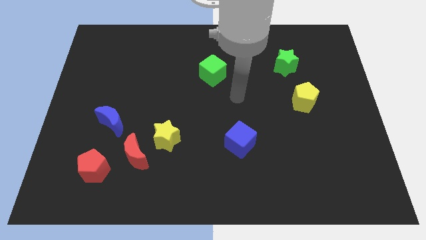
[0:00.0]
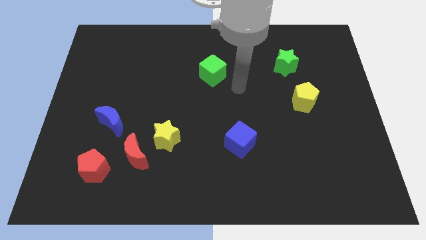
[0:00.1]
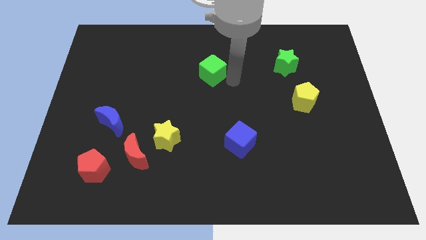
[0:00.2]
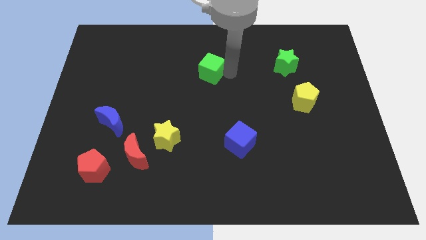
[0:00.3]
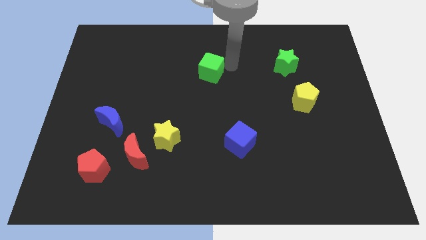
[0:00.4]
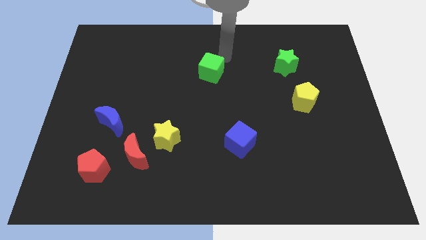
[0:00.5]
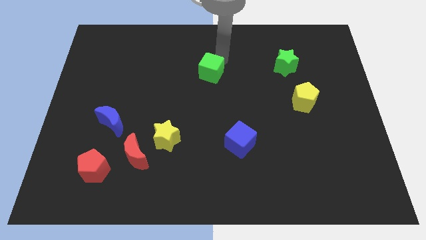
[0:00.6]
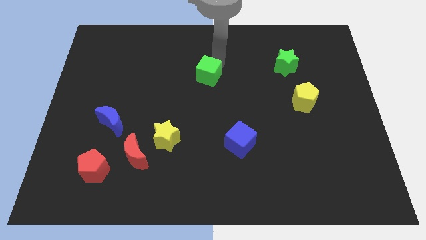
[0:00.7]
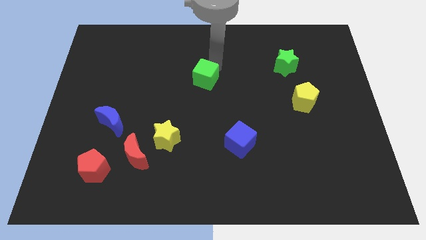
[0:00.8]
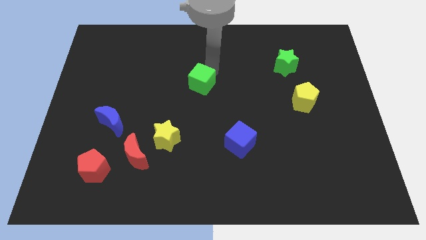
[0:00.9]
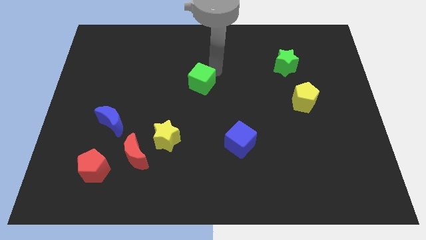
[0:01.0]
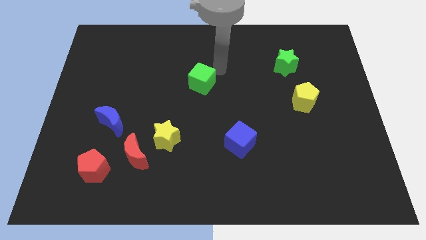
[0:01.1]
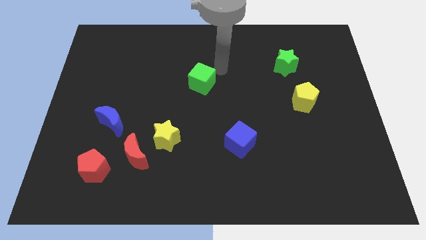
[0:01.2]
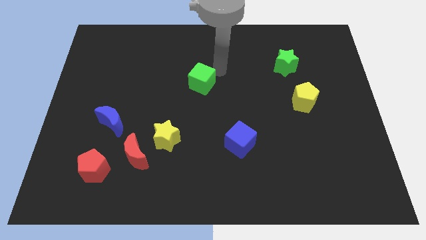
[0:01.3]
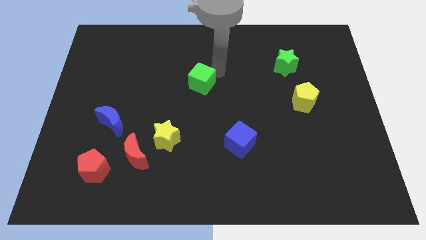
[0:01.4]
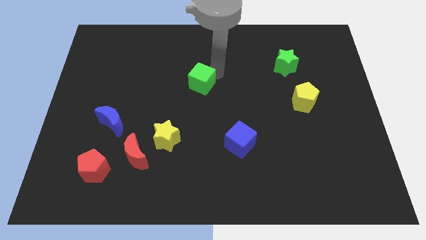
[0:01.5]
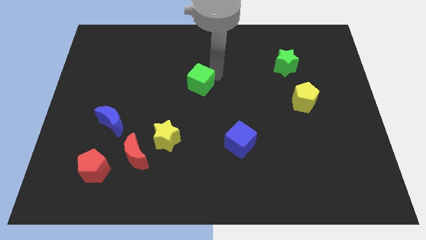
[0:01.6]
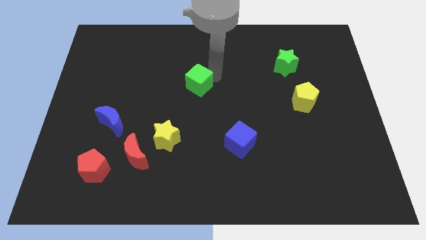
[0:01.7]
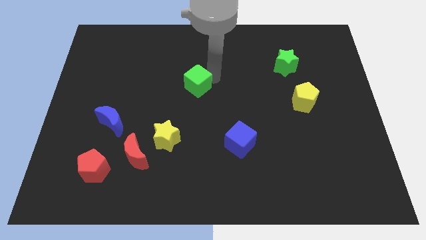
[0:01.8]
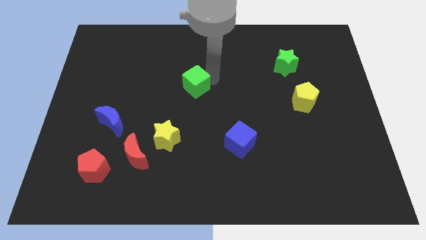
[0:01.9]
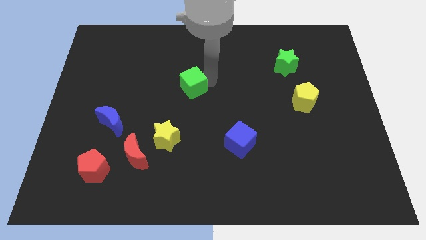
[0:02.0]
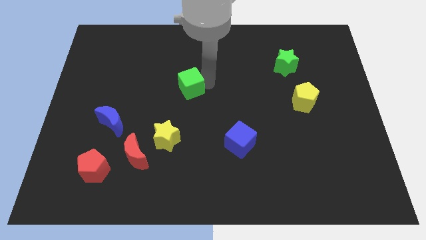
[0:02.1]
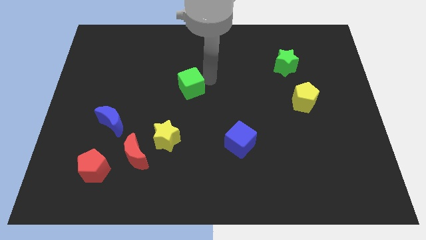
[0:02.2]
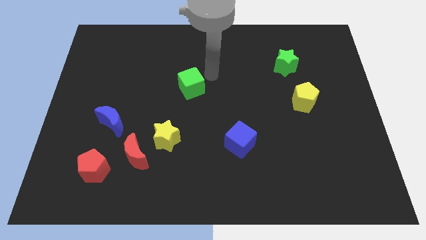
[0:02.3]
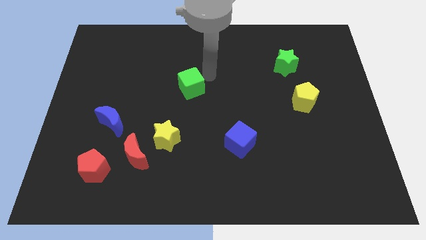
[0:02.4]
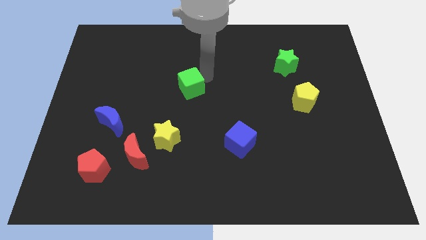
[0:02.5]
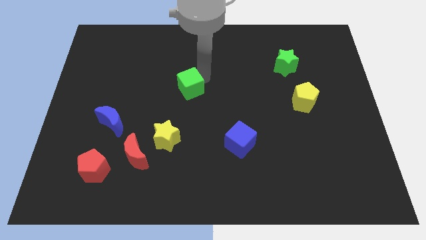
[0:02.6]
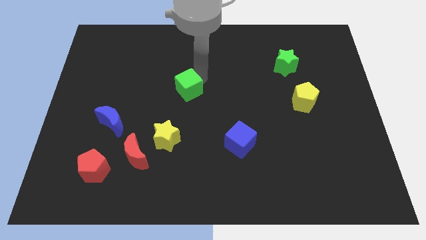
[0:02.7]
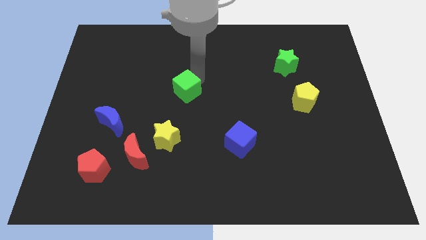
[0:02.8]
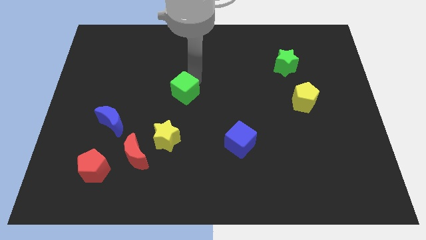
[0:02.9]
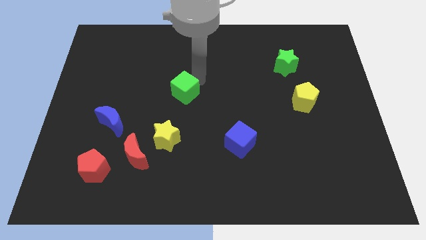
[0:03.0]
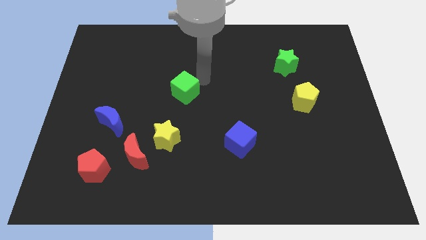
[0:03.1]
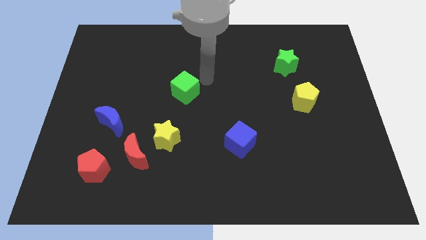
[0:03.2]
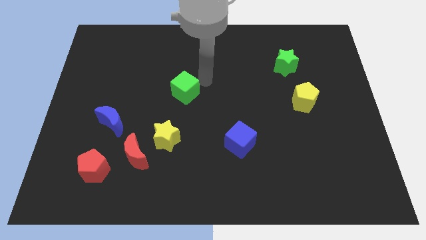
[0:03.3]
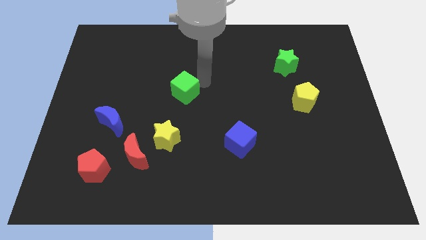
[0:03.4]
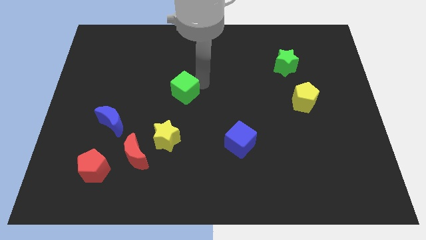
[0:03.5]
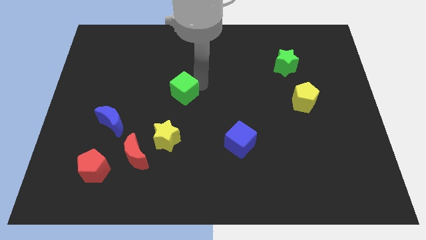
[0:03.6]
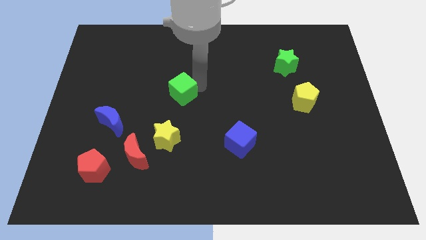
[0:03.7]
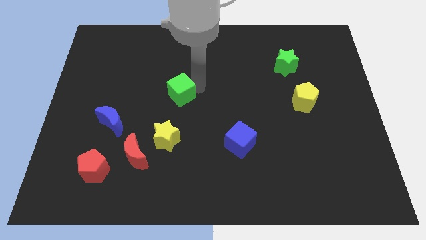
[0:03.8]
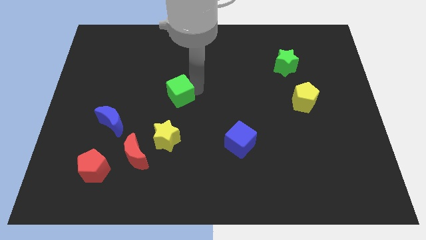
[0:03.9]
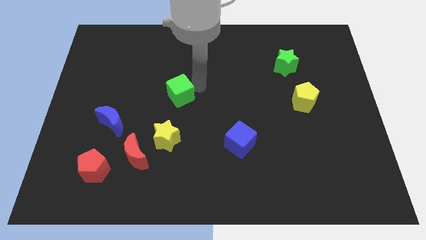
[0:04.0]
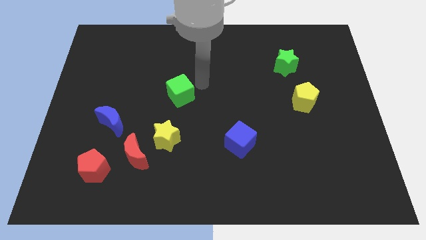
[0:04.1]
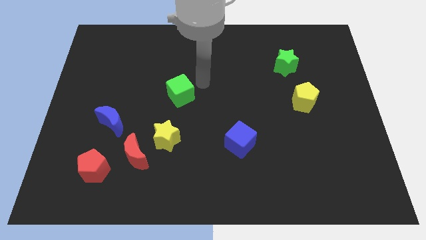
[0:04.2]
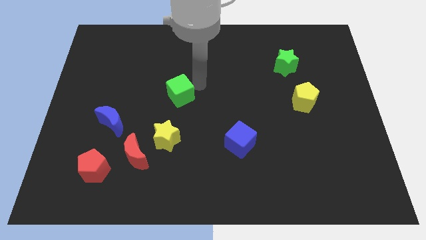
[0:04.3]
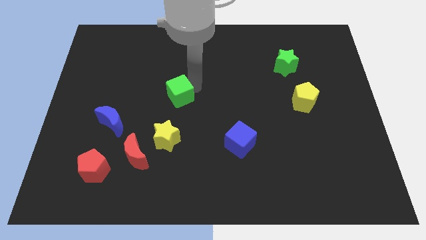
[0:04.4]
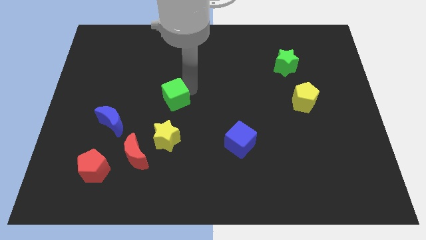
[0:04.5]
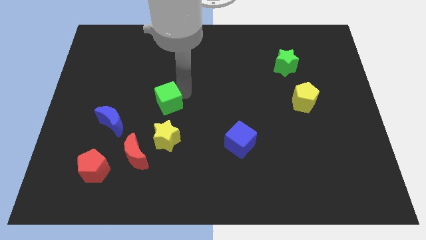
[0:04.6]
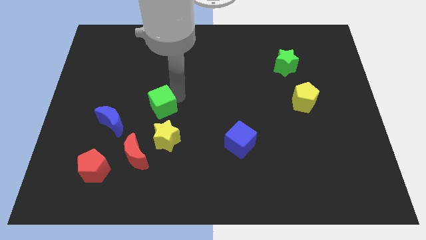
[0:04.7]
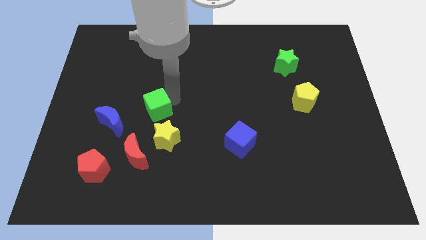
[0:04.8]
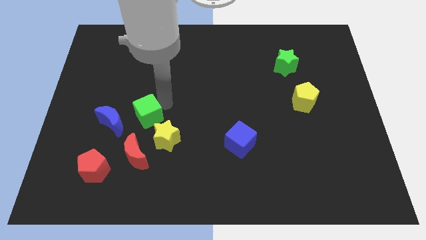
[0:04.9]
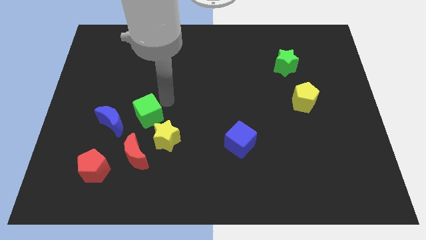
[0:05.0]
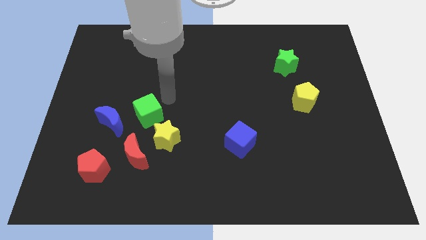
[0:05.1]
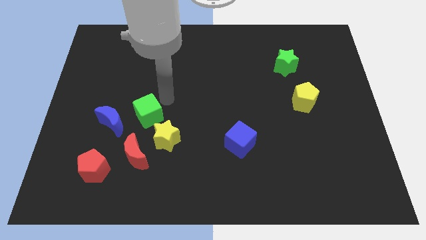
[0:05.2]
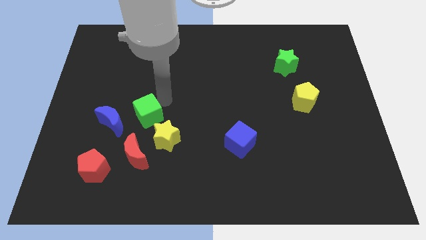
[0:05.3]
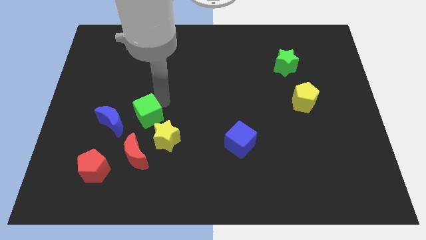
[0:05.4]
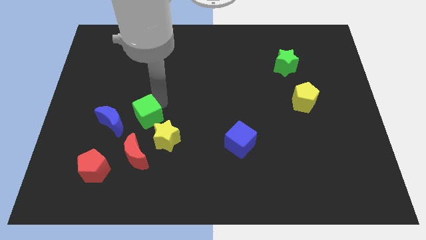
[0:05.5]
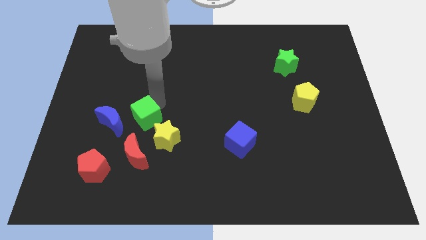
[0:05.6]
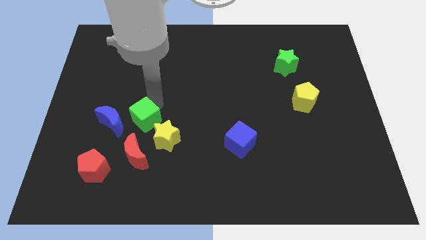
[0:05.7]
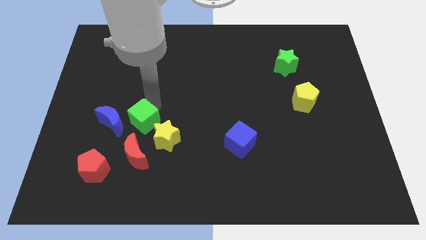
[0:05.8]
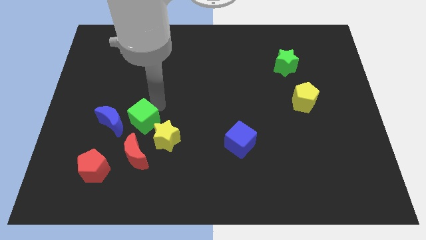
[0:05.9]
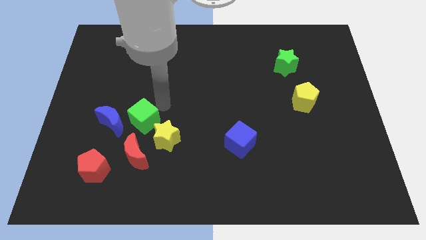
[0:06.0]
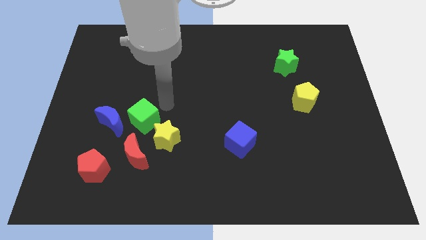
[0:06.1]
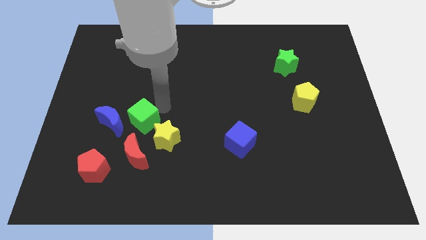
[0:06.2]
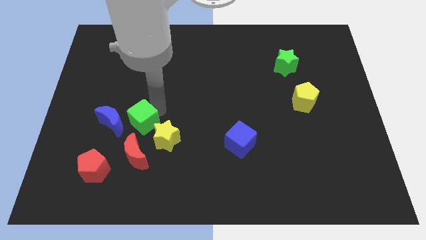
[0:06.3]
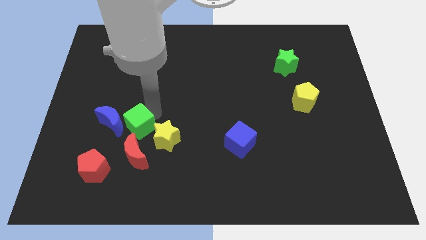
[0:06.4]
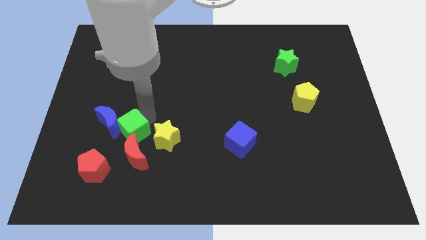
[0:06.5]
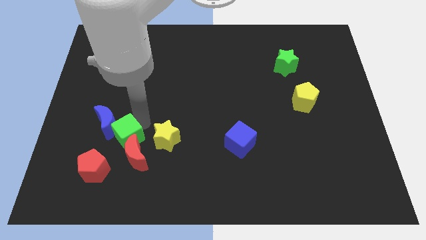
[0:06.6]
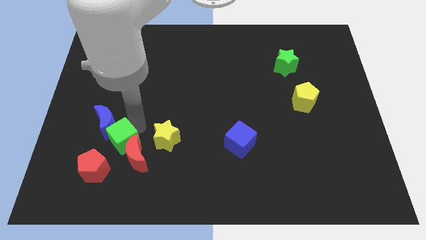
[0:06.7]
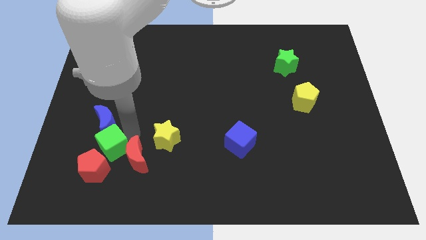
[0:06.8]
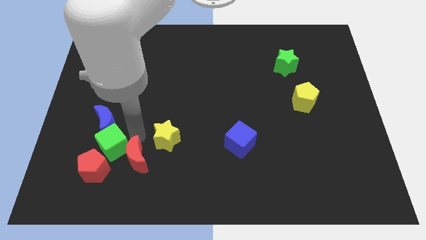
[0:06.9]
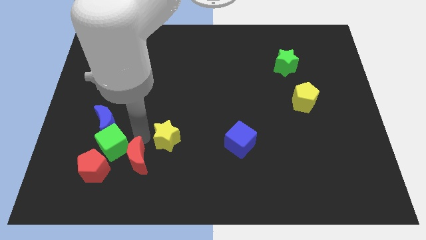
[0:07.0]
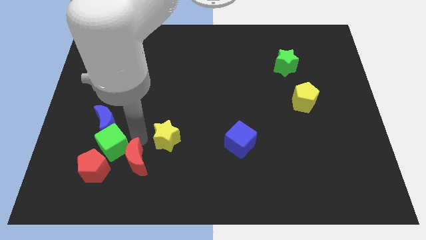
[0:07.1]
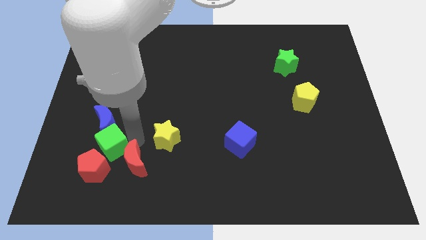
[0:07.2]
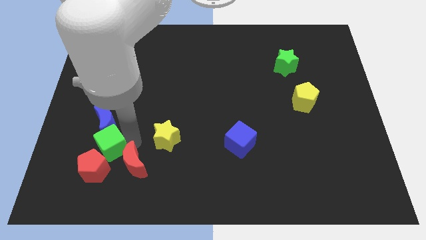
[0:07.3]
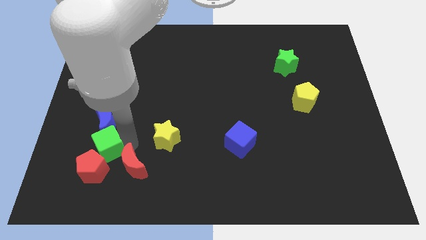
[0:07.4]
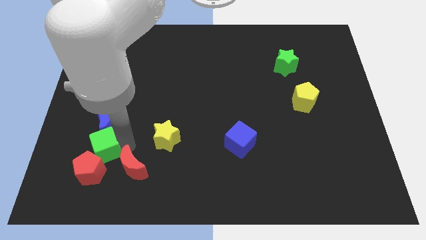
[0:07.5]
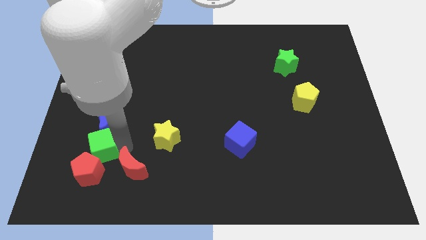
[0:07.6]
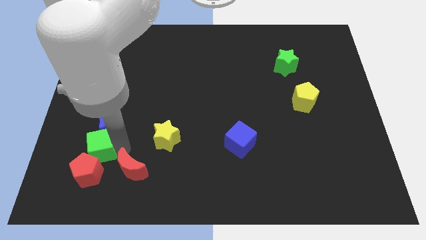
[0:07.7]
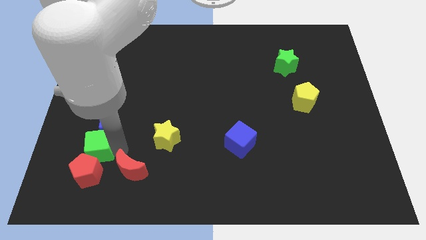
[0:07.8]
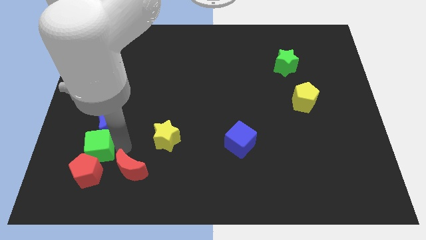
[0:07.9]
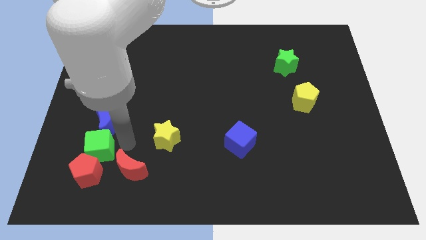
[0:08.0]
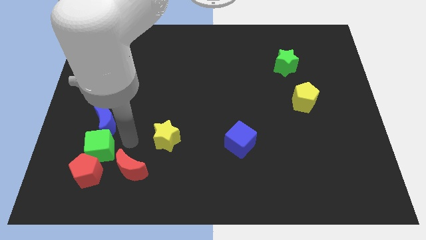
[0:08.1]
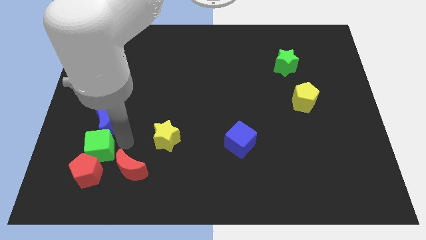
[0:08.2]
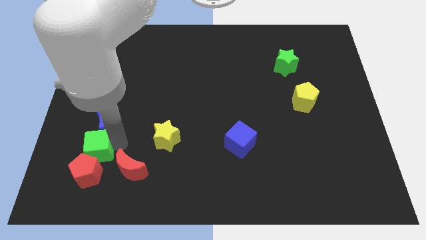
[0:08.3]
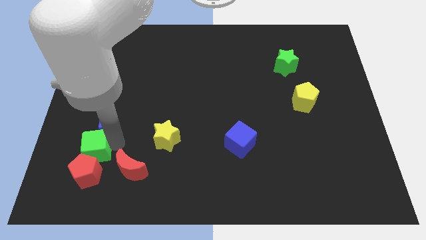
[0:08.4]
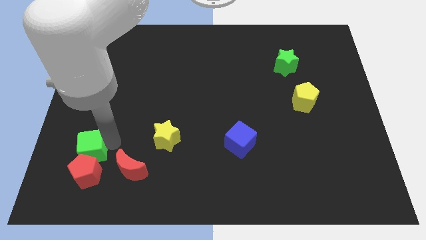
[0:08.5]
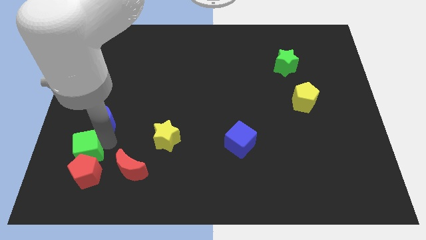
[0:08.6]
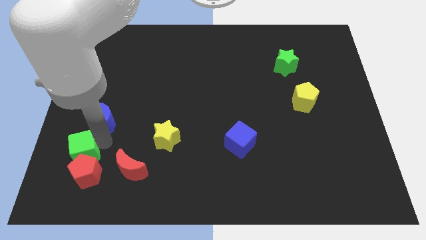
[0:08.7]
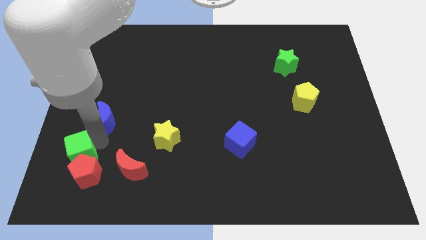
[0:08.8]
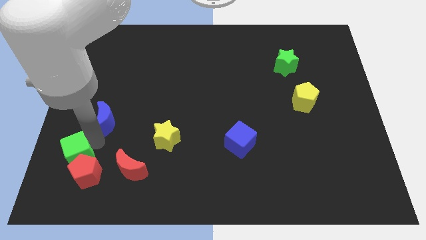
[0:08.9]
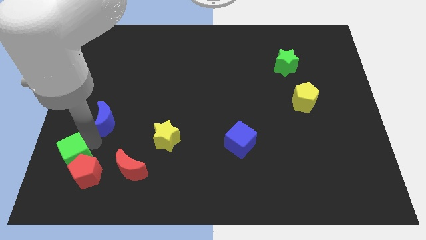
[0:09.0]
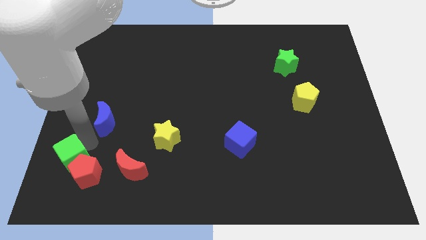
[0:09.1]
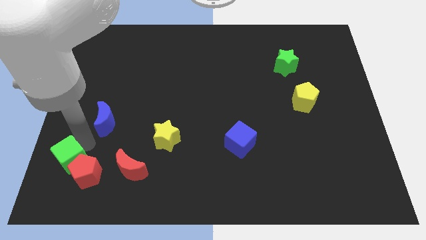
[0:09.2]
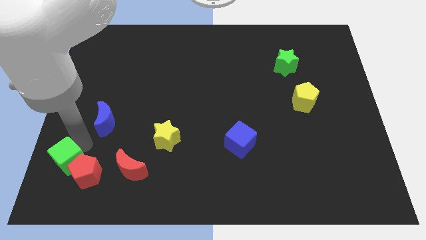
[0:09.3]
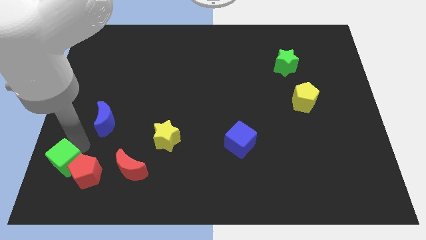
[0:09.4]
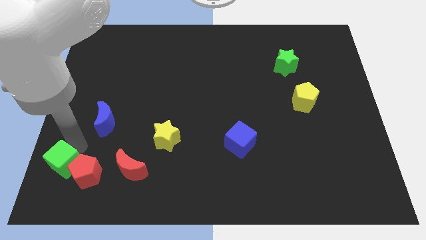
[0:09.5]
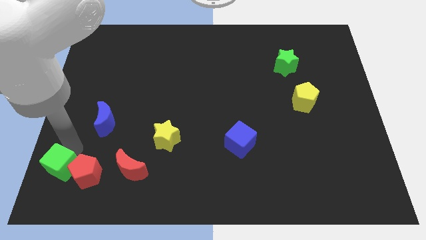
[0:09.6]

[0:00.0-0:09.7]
push the green cube to the bottom left
